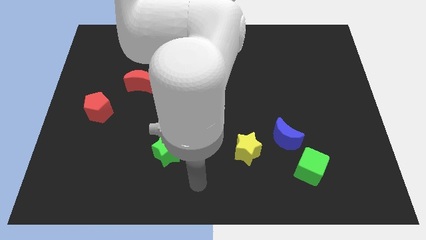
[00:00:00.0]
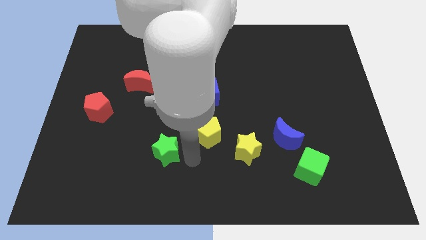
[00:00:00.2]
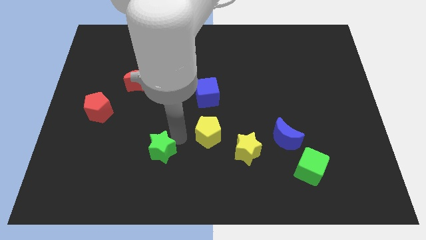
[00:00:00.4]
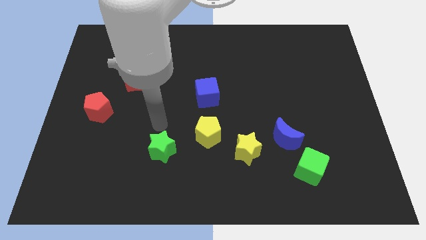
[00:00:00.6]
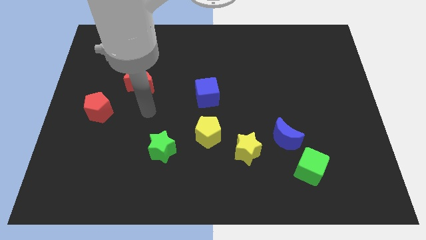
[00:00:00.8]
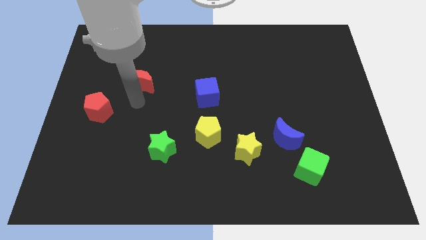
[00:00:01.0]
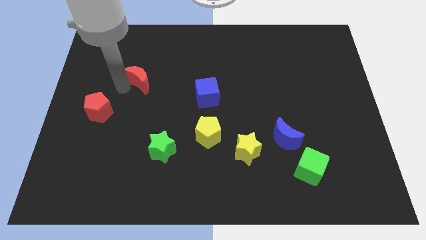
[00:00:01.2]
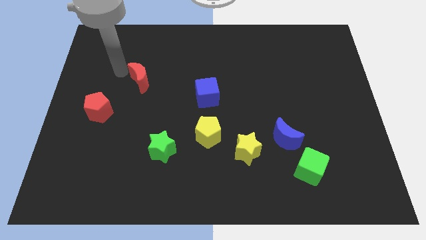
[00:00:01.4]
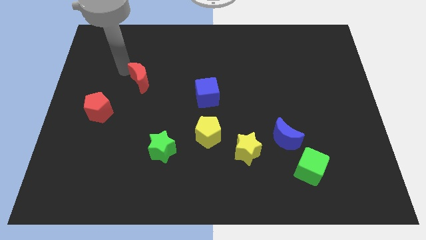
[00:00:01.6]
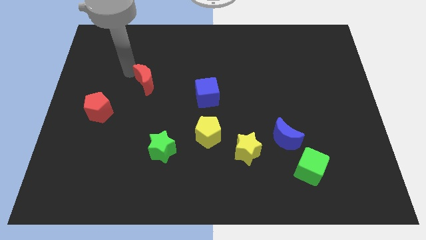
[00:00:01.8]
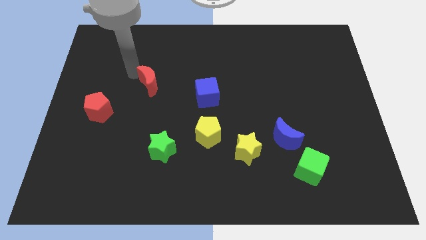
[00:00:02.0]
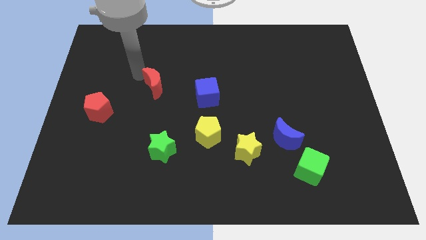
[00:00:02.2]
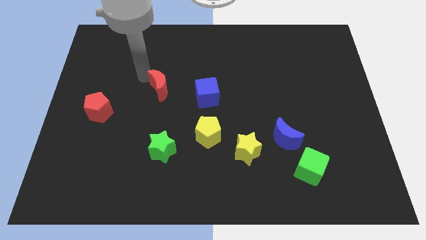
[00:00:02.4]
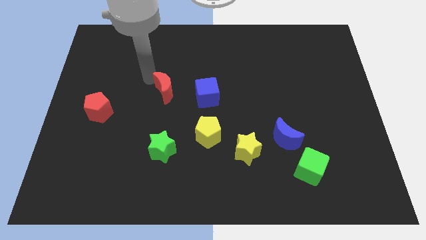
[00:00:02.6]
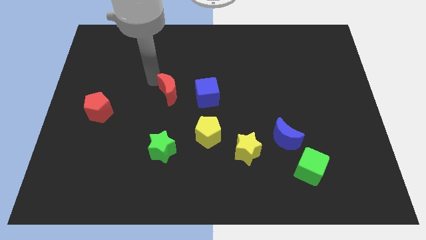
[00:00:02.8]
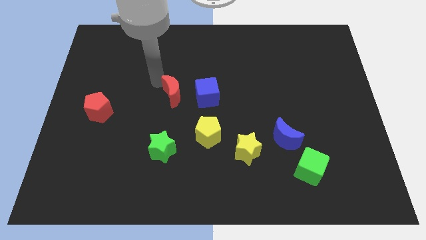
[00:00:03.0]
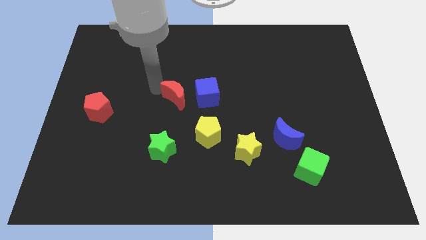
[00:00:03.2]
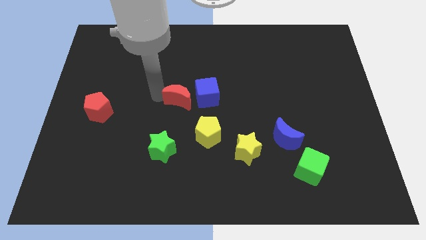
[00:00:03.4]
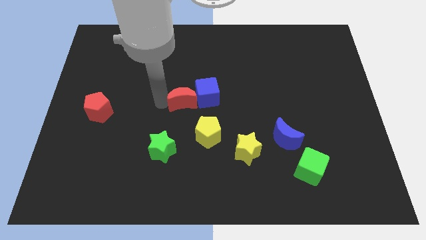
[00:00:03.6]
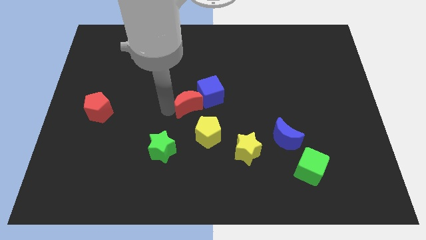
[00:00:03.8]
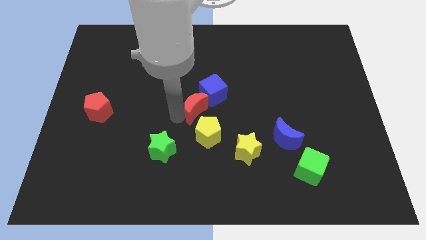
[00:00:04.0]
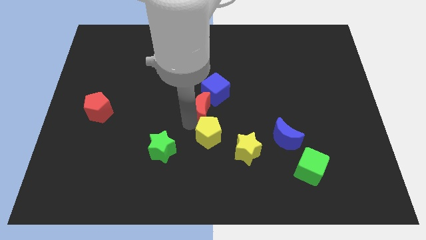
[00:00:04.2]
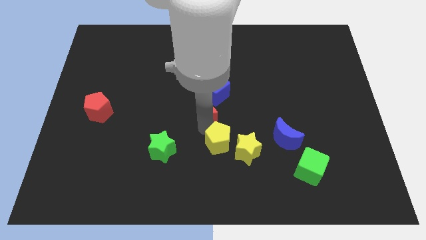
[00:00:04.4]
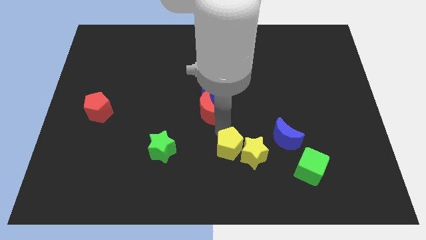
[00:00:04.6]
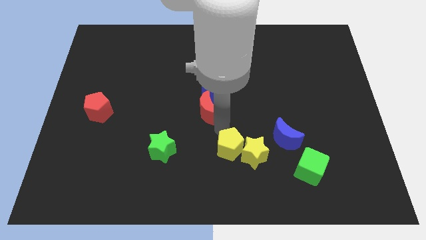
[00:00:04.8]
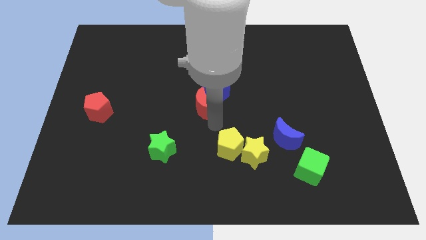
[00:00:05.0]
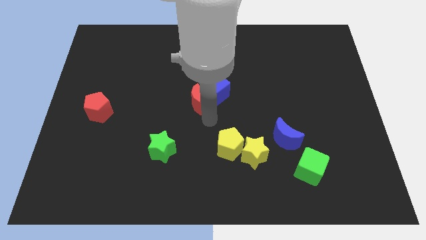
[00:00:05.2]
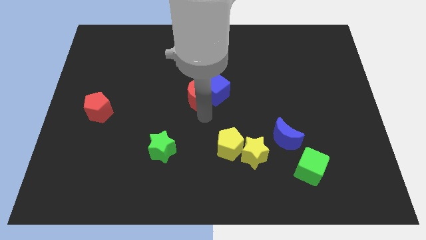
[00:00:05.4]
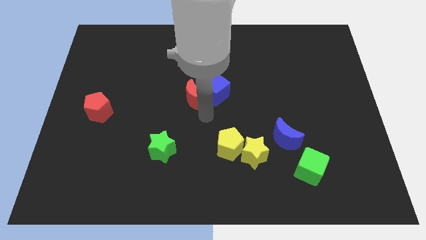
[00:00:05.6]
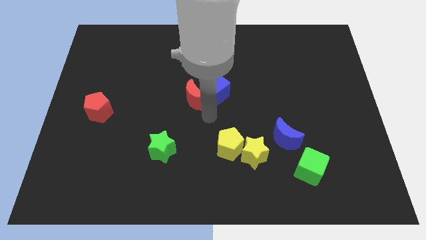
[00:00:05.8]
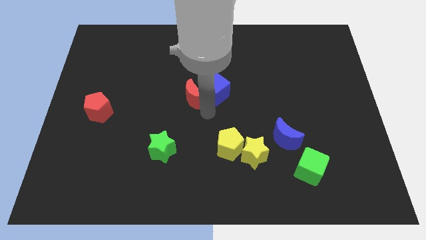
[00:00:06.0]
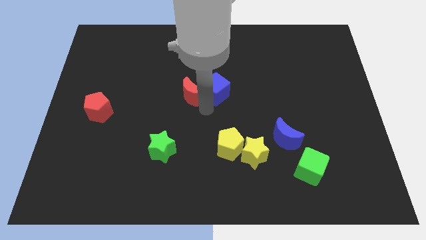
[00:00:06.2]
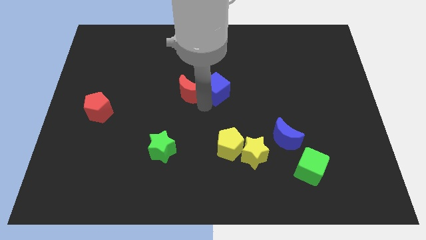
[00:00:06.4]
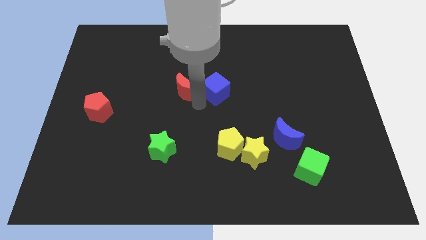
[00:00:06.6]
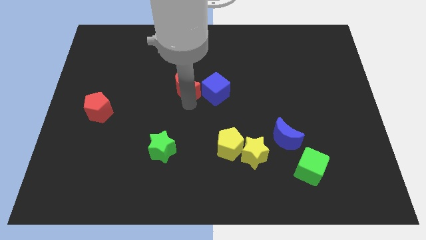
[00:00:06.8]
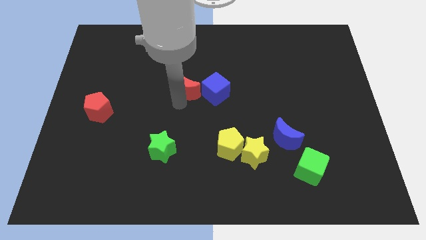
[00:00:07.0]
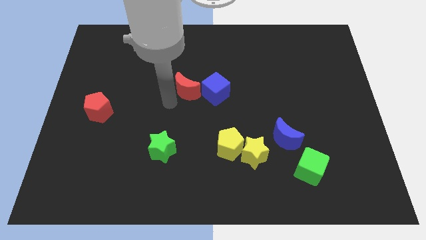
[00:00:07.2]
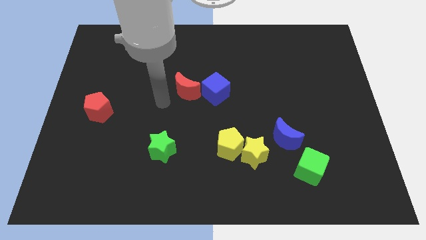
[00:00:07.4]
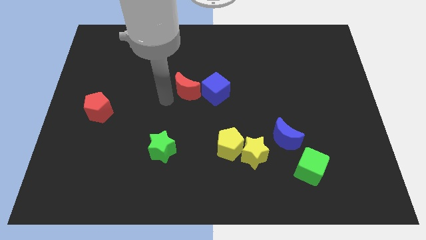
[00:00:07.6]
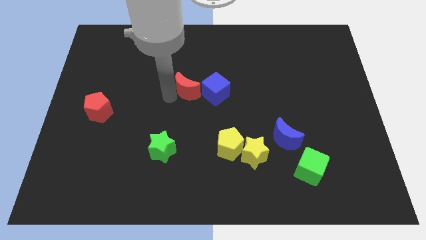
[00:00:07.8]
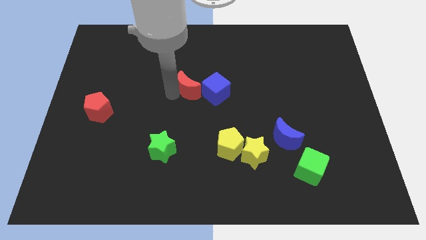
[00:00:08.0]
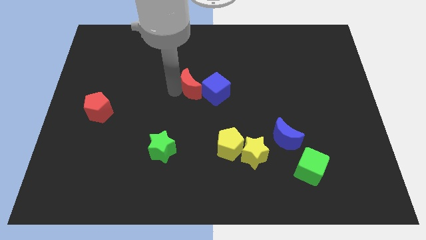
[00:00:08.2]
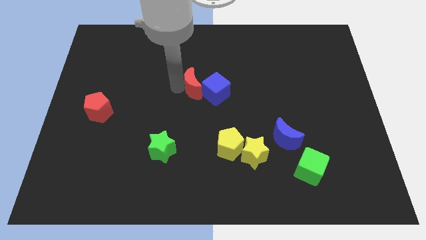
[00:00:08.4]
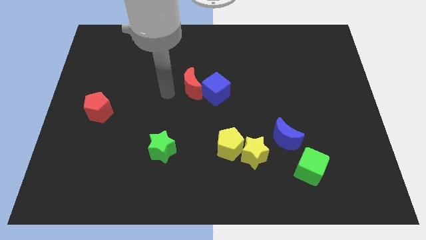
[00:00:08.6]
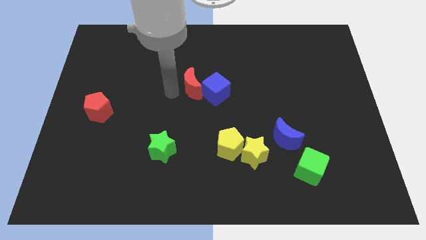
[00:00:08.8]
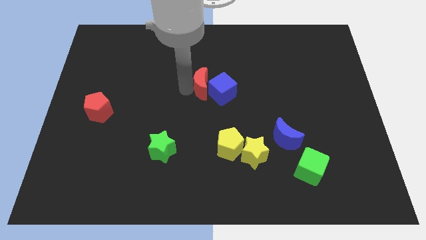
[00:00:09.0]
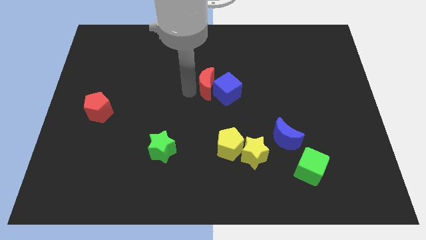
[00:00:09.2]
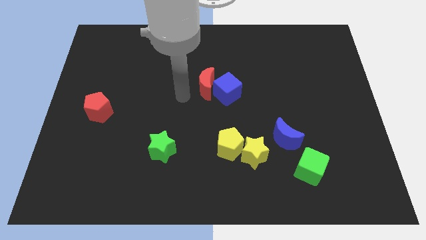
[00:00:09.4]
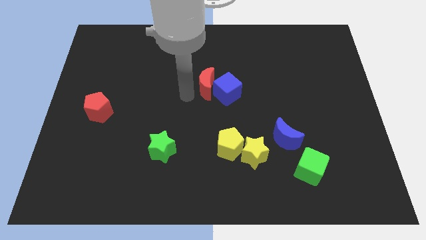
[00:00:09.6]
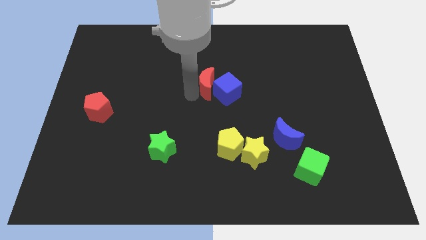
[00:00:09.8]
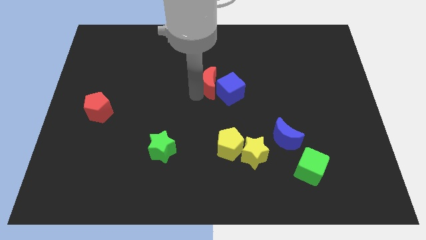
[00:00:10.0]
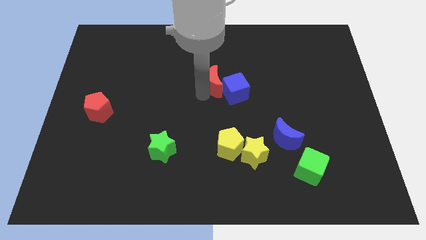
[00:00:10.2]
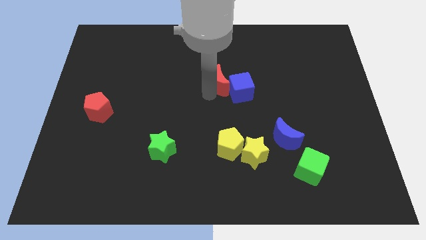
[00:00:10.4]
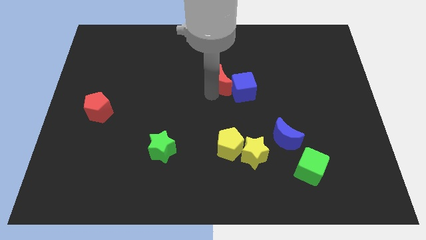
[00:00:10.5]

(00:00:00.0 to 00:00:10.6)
push the red moon to the right

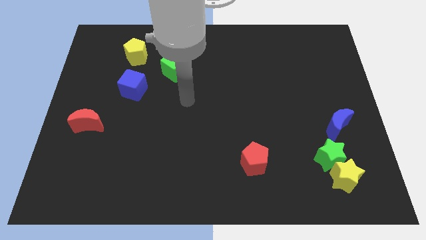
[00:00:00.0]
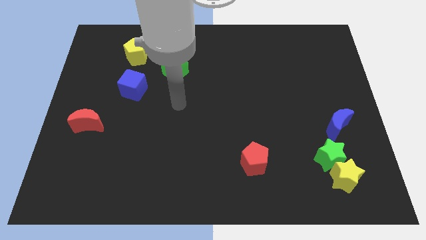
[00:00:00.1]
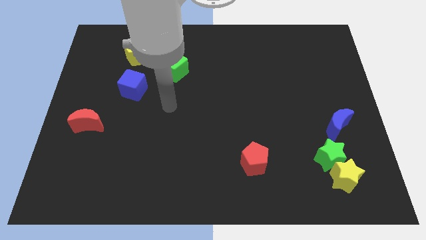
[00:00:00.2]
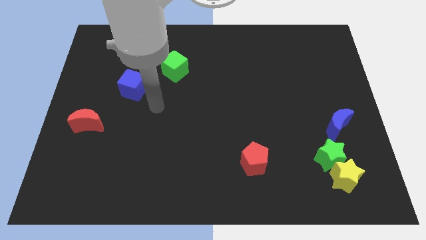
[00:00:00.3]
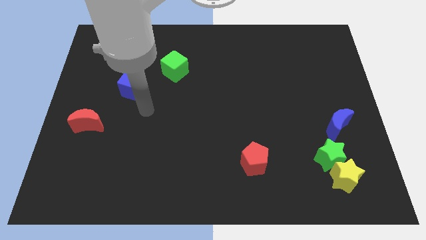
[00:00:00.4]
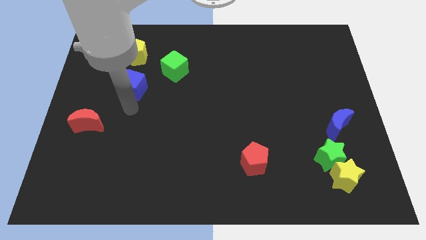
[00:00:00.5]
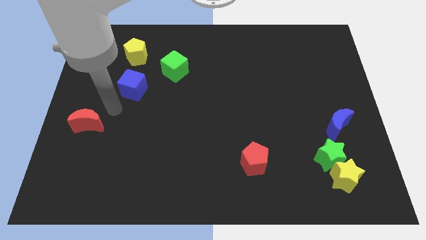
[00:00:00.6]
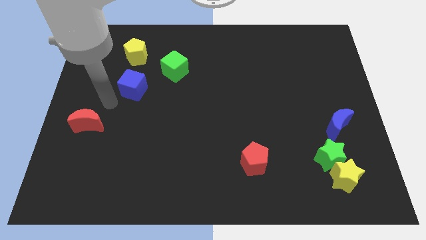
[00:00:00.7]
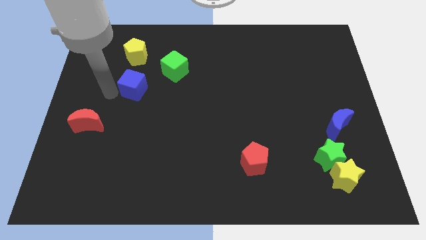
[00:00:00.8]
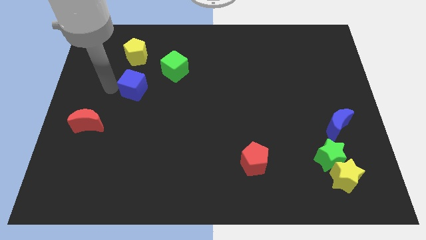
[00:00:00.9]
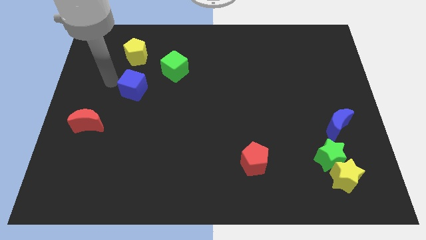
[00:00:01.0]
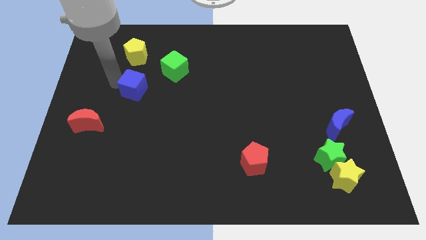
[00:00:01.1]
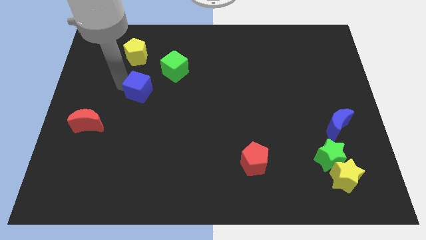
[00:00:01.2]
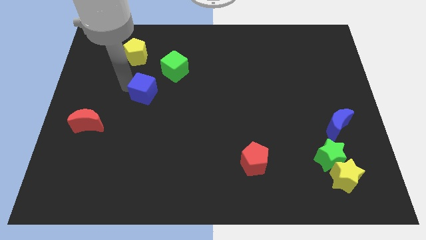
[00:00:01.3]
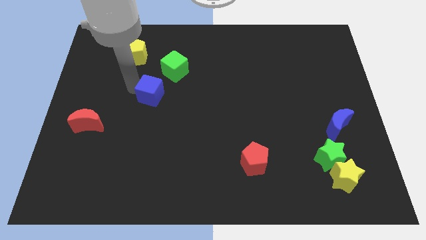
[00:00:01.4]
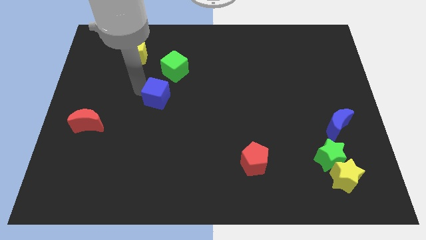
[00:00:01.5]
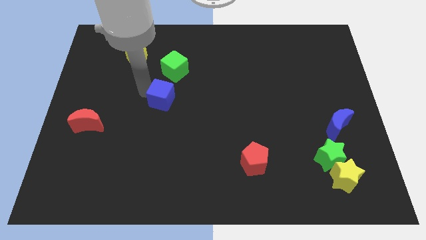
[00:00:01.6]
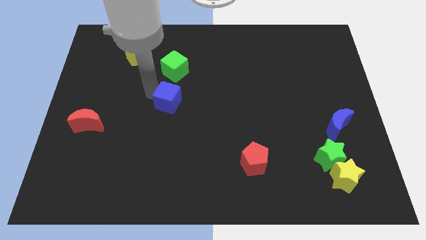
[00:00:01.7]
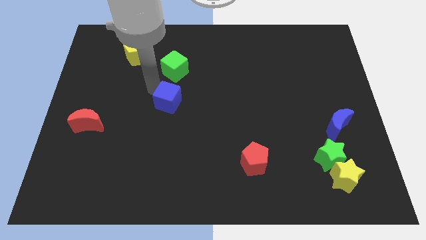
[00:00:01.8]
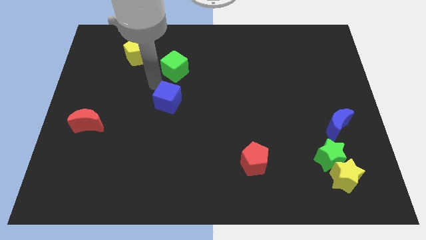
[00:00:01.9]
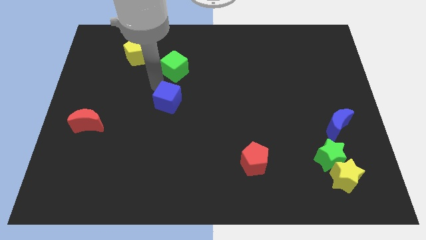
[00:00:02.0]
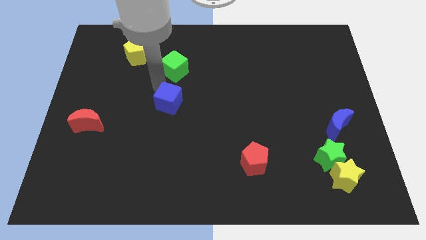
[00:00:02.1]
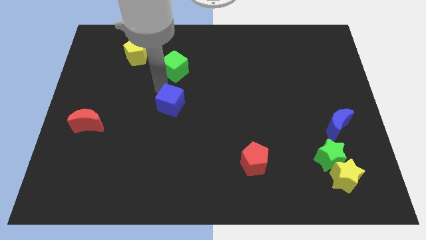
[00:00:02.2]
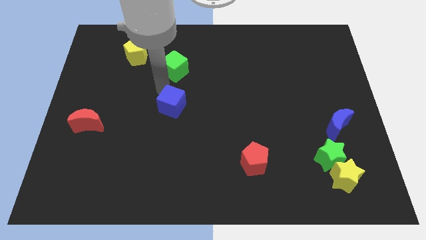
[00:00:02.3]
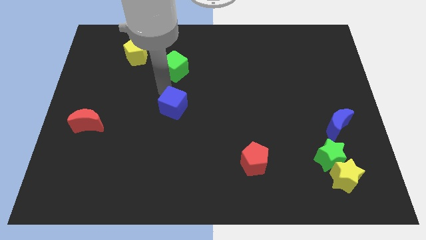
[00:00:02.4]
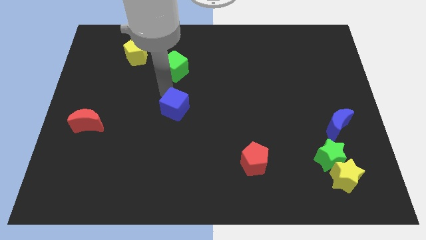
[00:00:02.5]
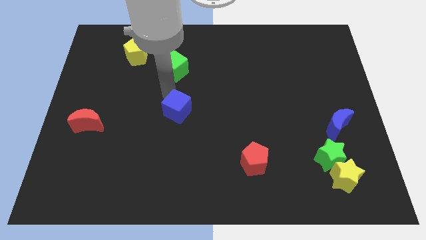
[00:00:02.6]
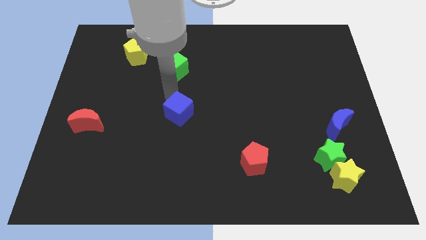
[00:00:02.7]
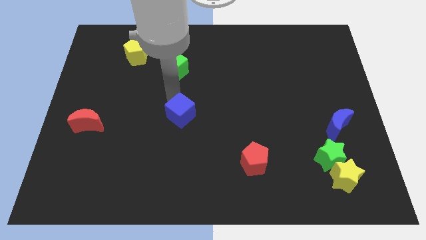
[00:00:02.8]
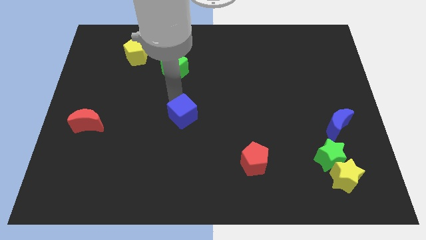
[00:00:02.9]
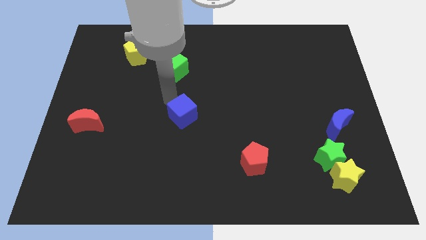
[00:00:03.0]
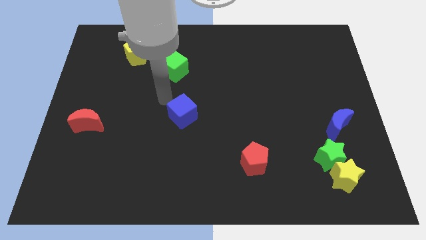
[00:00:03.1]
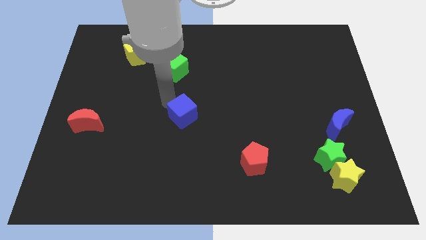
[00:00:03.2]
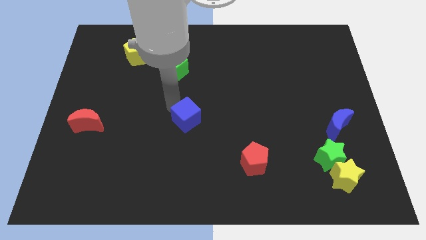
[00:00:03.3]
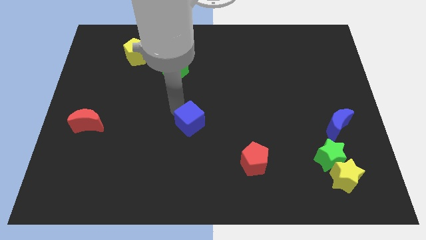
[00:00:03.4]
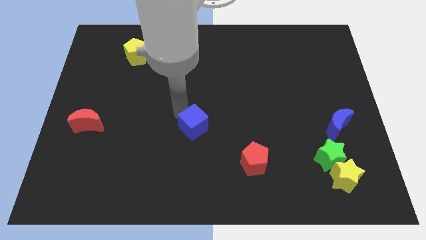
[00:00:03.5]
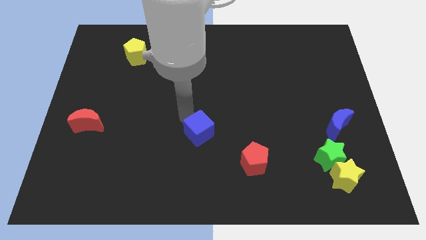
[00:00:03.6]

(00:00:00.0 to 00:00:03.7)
move the blue cube down and to the right diagonally
